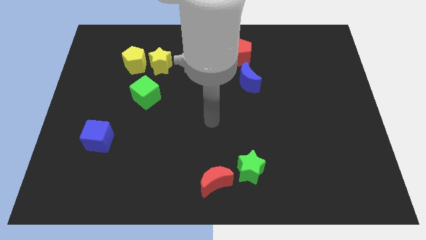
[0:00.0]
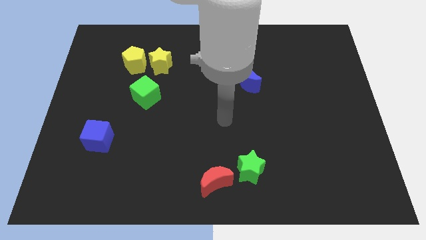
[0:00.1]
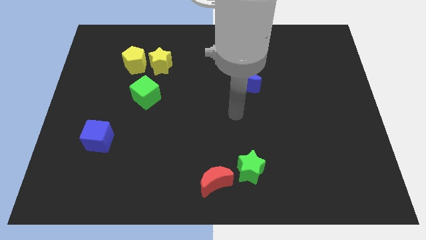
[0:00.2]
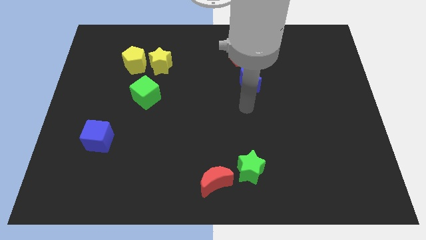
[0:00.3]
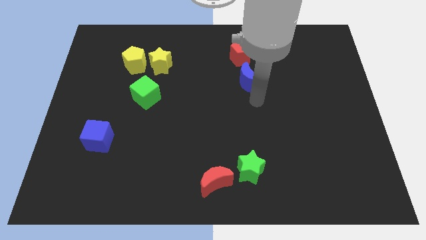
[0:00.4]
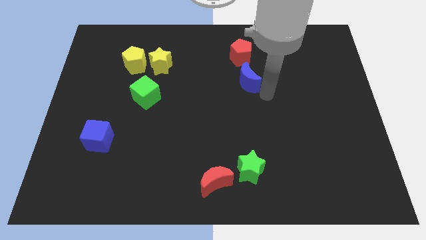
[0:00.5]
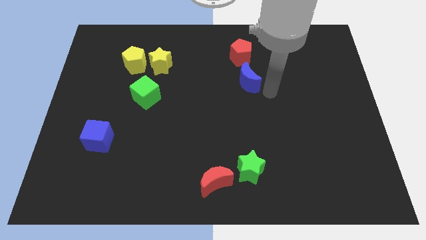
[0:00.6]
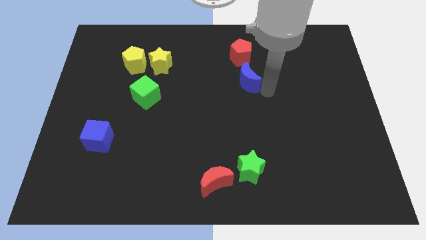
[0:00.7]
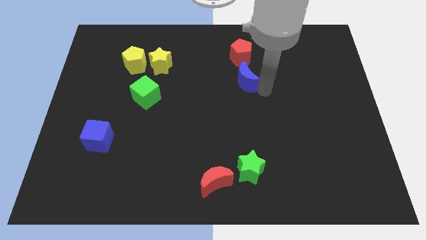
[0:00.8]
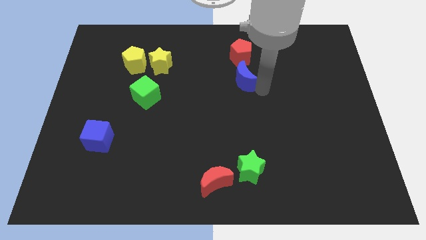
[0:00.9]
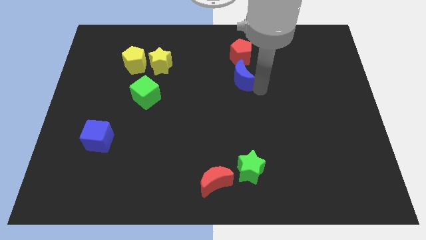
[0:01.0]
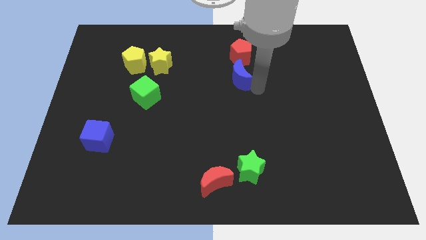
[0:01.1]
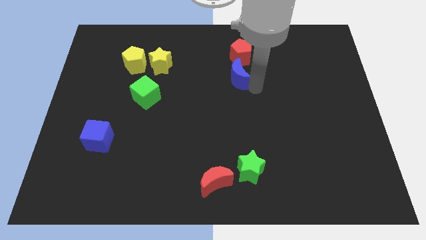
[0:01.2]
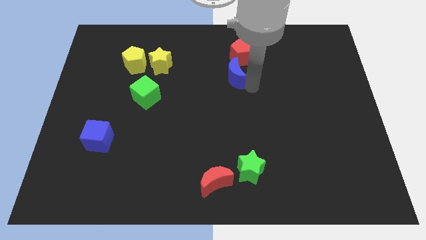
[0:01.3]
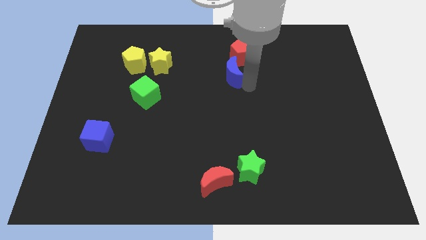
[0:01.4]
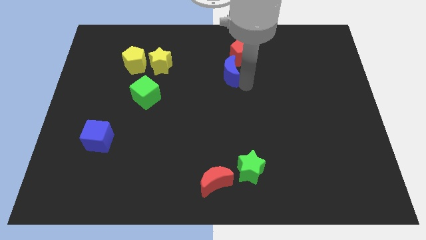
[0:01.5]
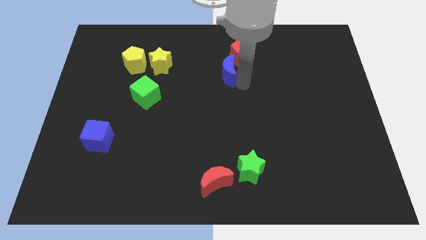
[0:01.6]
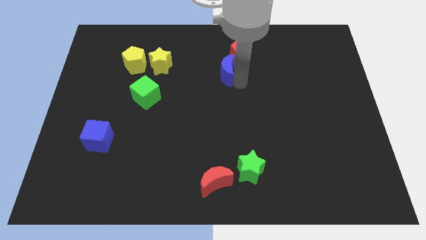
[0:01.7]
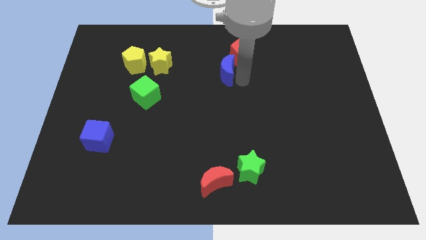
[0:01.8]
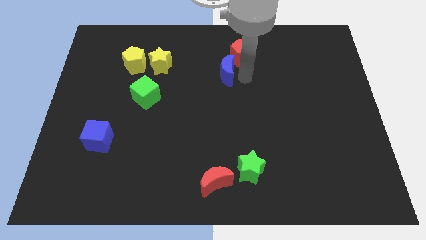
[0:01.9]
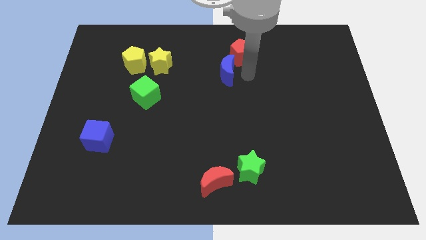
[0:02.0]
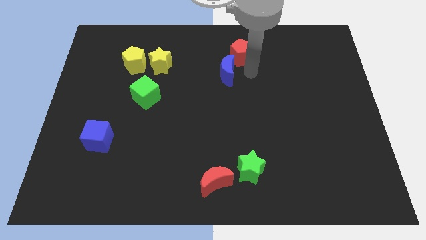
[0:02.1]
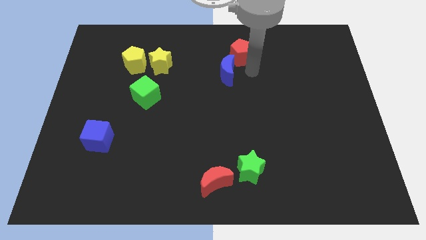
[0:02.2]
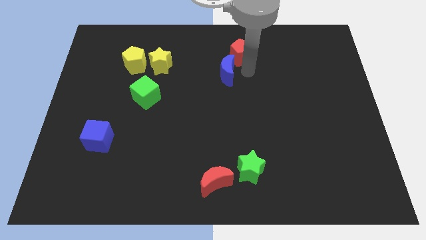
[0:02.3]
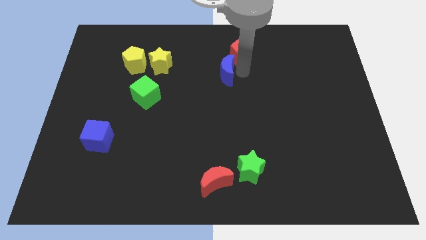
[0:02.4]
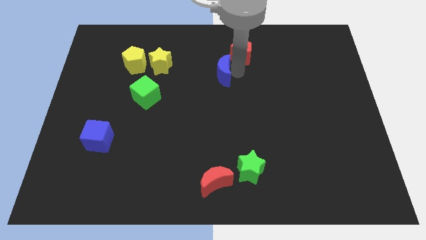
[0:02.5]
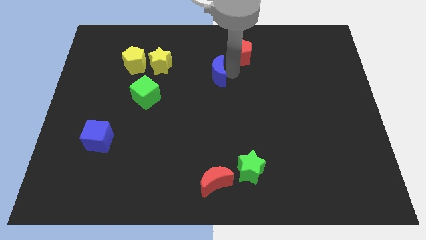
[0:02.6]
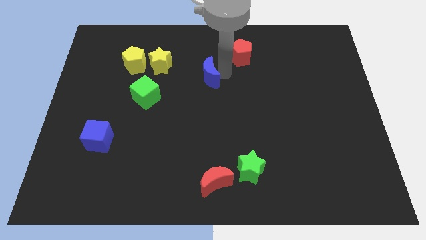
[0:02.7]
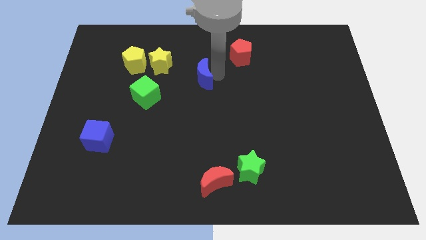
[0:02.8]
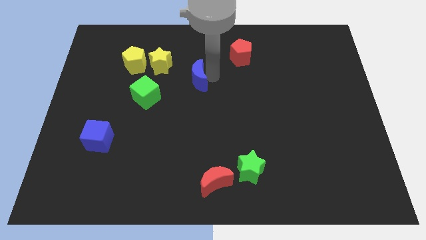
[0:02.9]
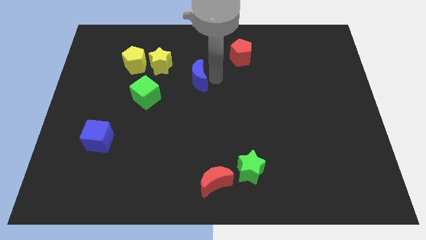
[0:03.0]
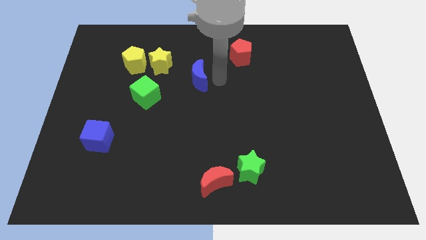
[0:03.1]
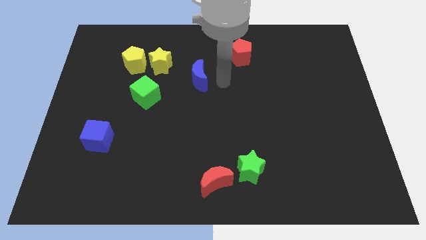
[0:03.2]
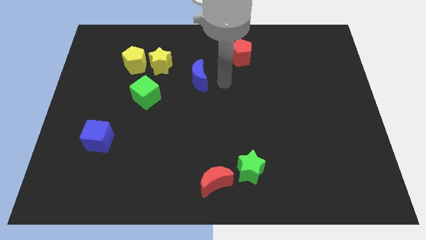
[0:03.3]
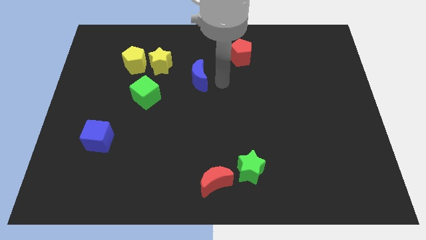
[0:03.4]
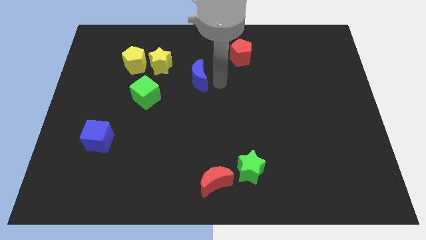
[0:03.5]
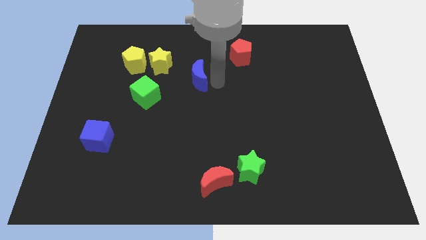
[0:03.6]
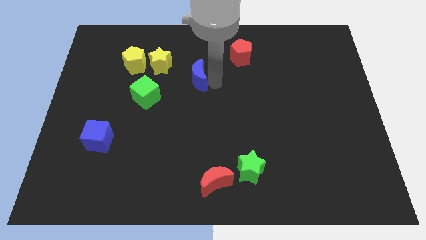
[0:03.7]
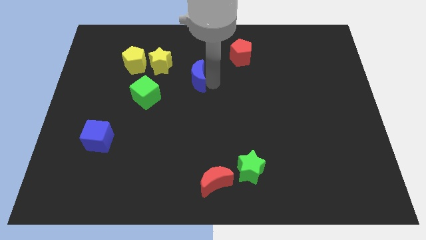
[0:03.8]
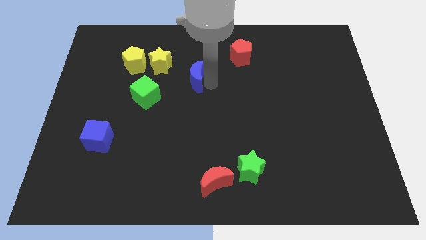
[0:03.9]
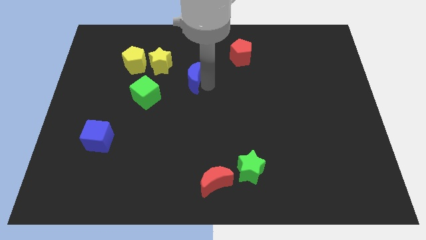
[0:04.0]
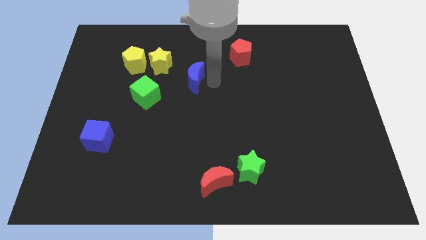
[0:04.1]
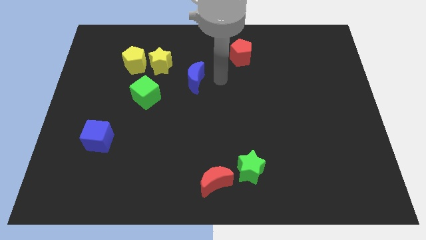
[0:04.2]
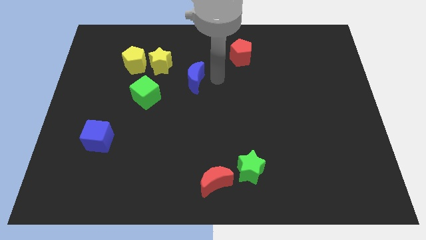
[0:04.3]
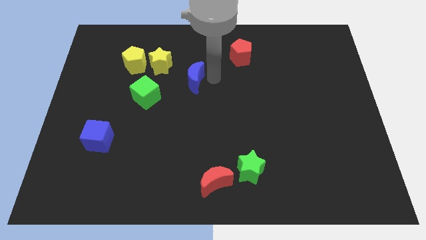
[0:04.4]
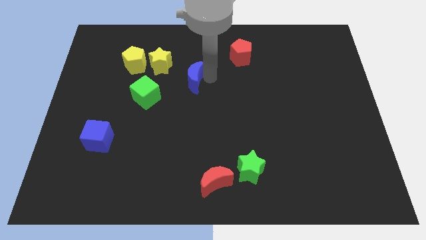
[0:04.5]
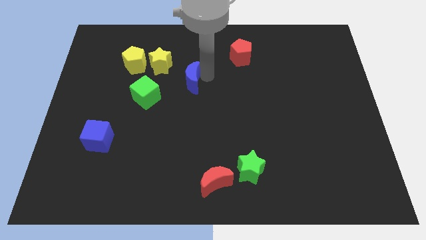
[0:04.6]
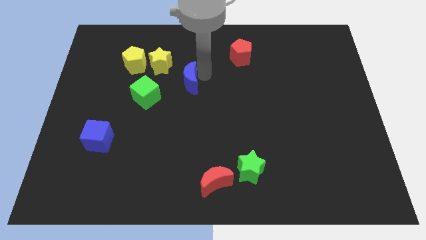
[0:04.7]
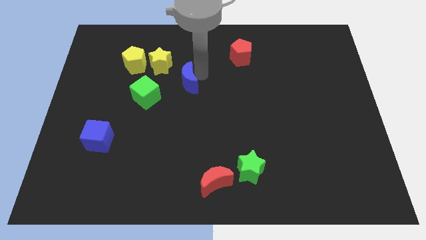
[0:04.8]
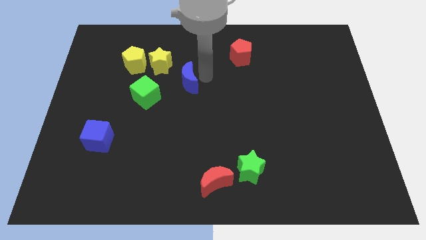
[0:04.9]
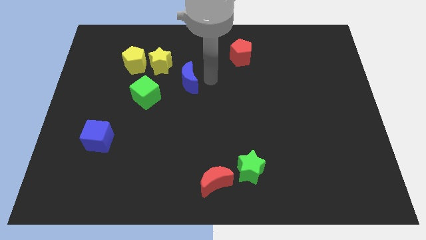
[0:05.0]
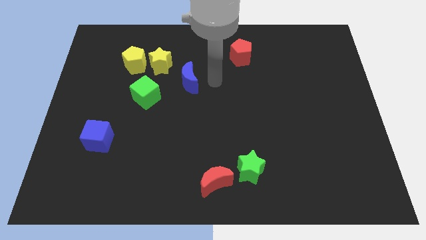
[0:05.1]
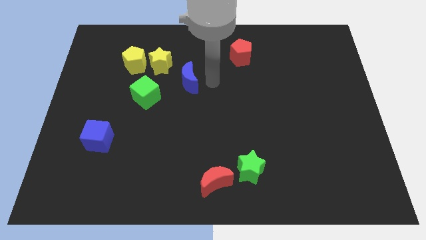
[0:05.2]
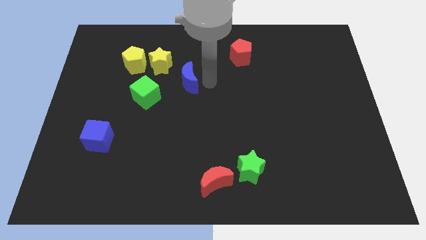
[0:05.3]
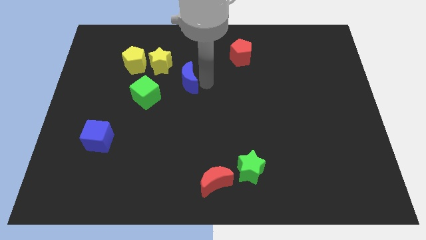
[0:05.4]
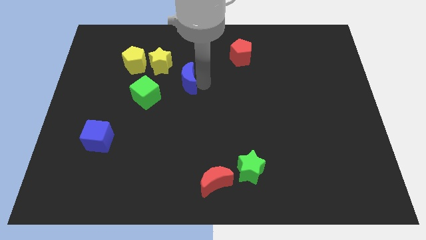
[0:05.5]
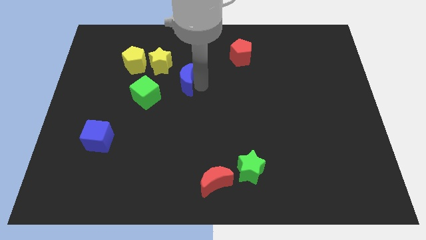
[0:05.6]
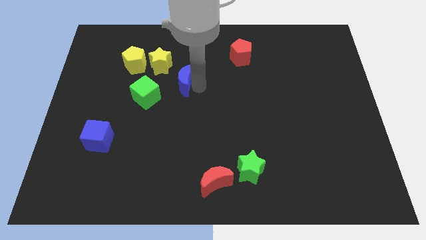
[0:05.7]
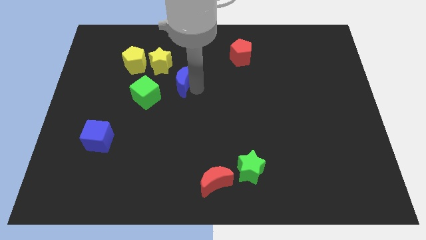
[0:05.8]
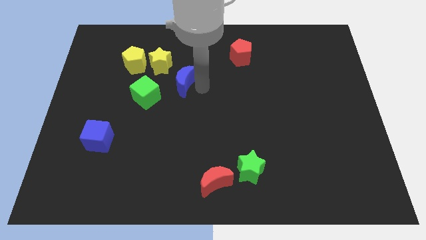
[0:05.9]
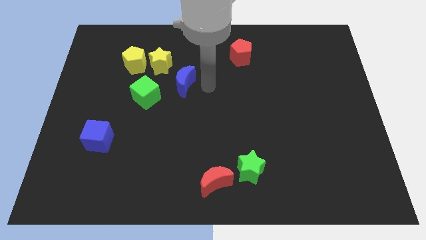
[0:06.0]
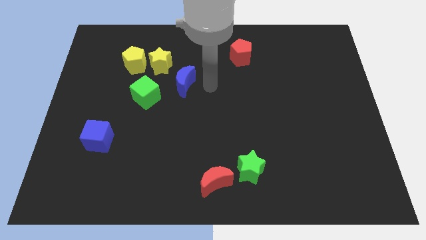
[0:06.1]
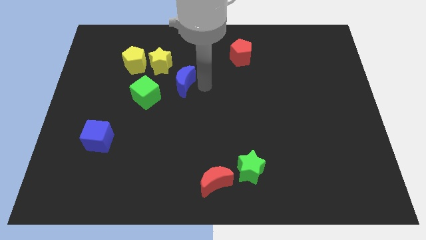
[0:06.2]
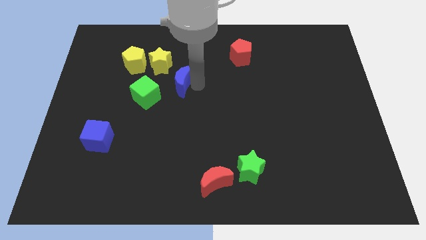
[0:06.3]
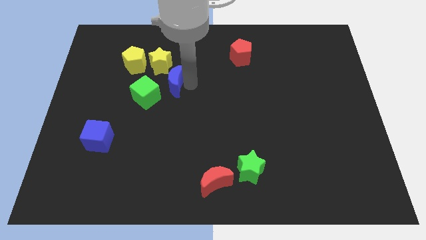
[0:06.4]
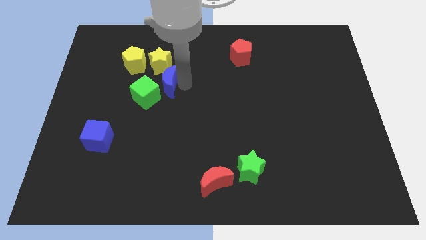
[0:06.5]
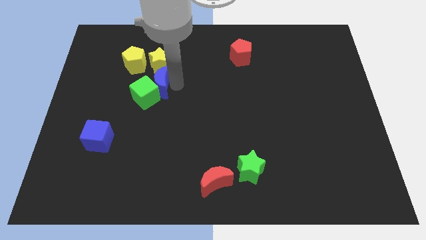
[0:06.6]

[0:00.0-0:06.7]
move the blue moon left

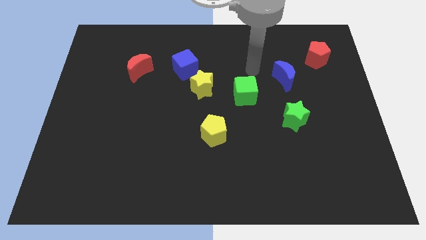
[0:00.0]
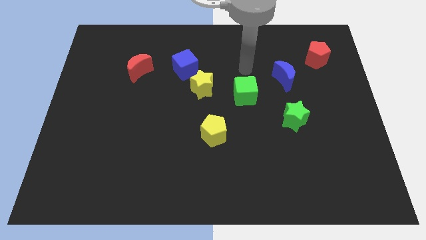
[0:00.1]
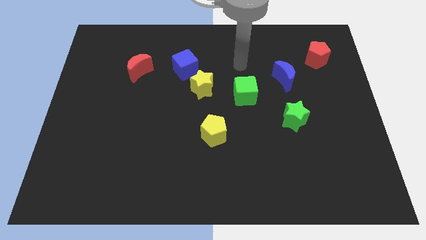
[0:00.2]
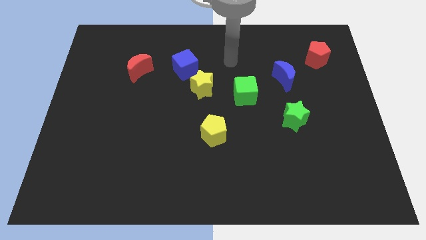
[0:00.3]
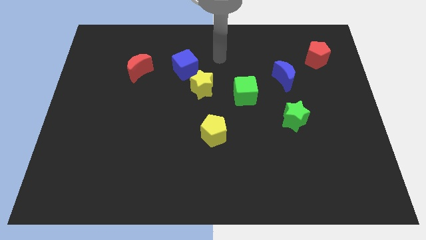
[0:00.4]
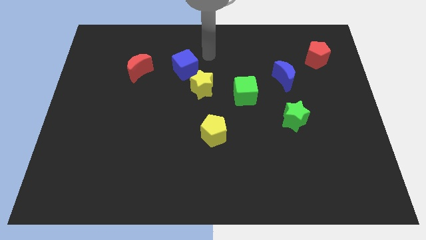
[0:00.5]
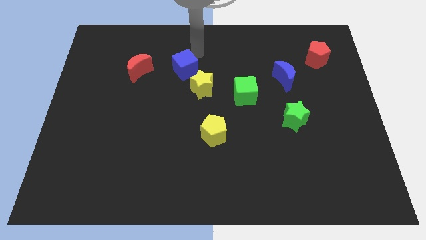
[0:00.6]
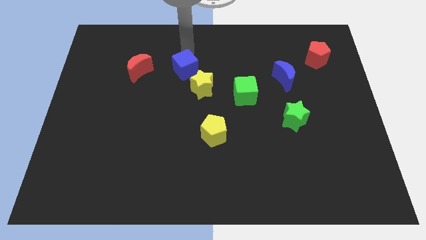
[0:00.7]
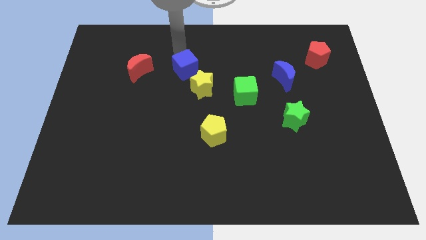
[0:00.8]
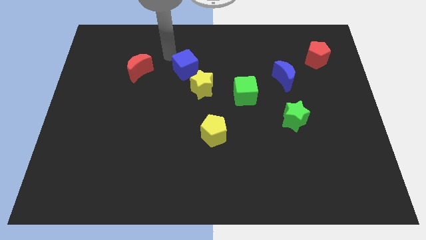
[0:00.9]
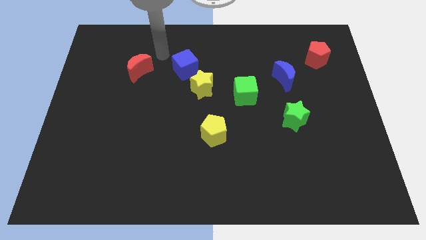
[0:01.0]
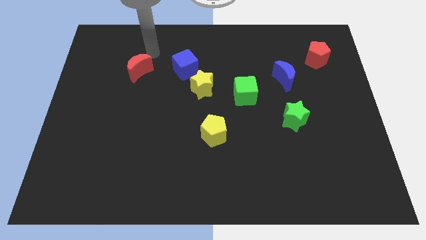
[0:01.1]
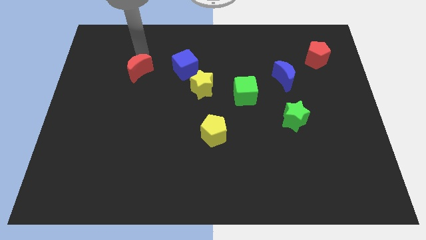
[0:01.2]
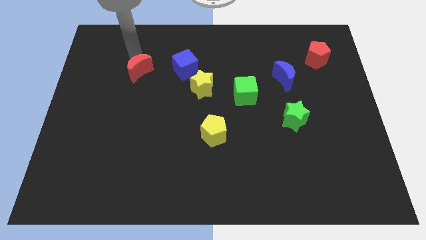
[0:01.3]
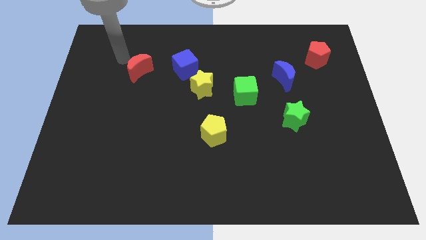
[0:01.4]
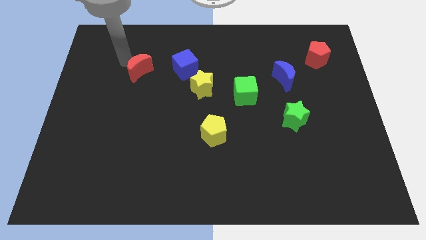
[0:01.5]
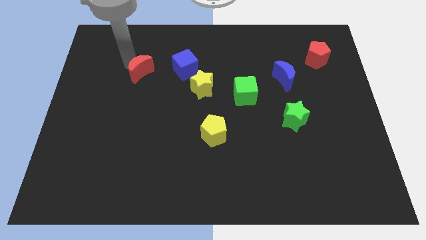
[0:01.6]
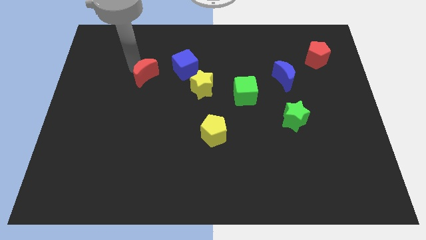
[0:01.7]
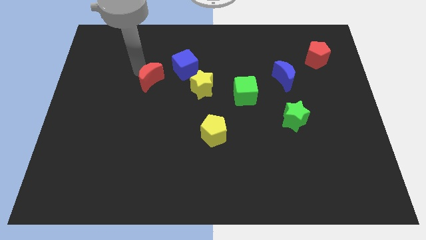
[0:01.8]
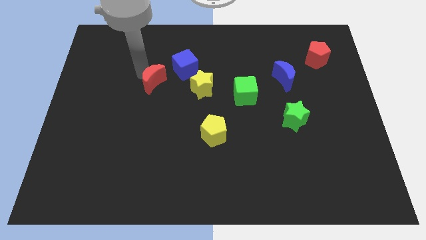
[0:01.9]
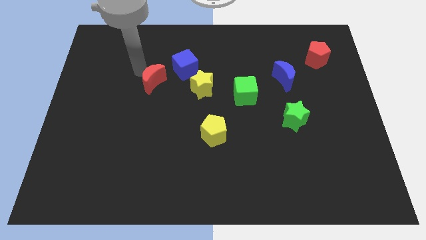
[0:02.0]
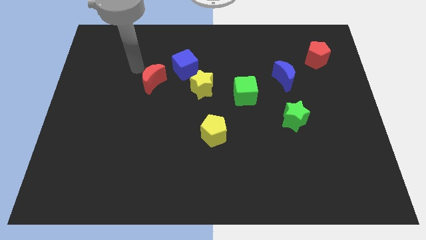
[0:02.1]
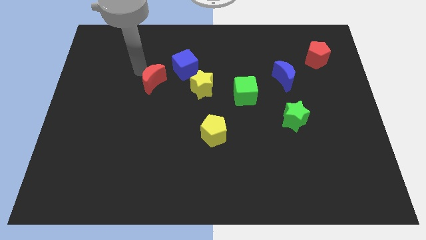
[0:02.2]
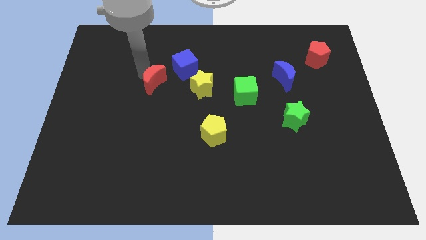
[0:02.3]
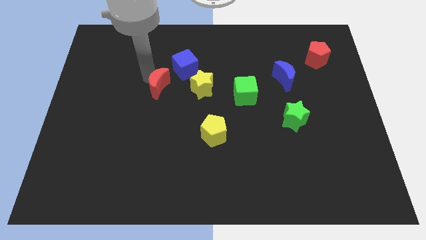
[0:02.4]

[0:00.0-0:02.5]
push the red moon slightly down and right diagonally
